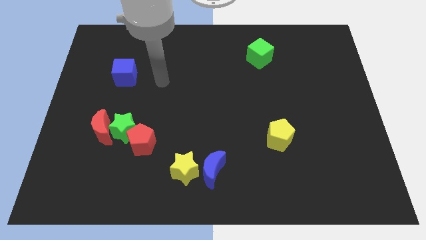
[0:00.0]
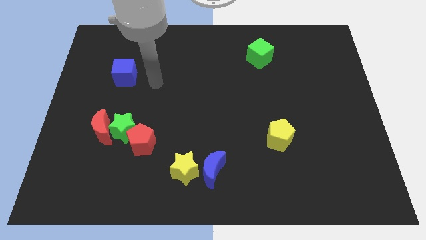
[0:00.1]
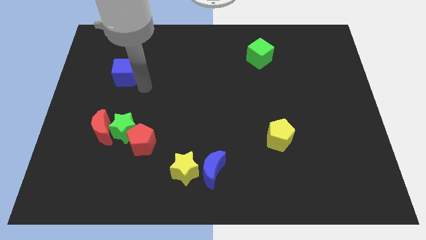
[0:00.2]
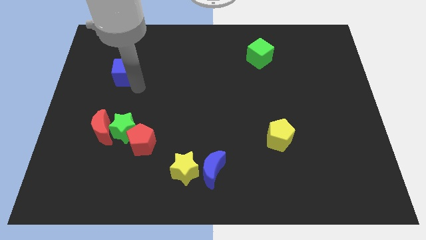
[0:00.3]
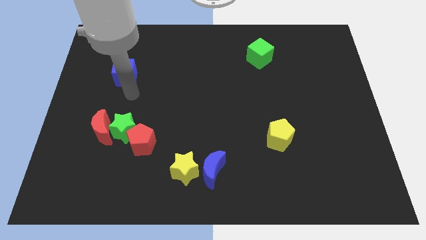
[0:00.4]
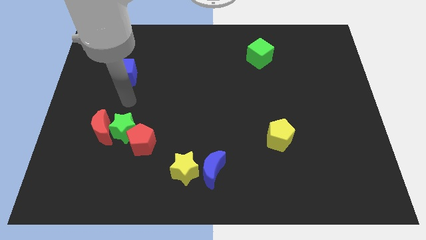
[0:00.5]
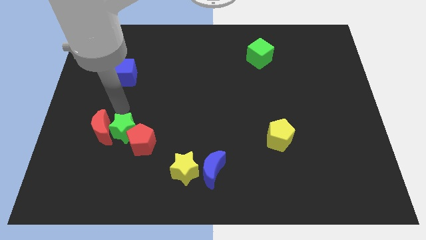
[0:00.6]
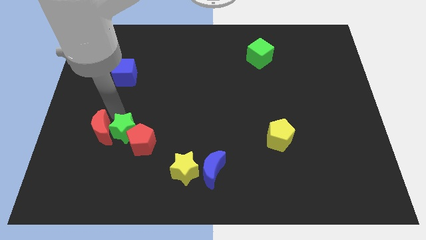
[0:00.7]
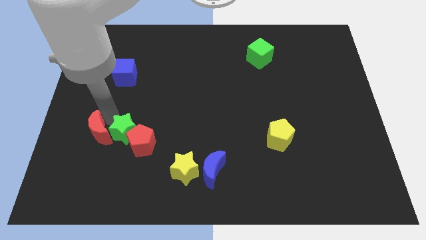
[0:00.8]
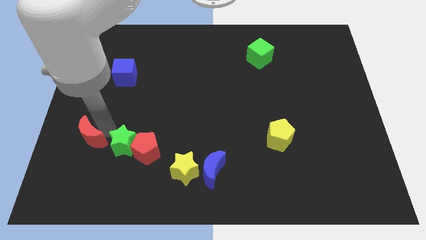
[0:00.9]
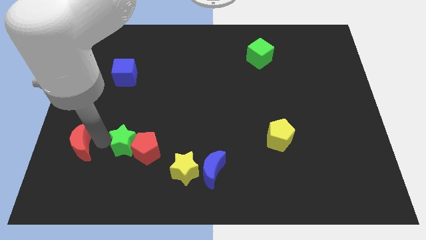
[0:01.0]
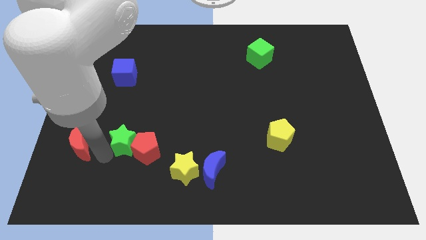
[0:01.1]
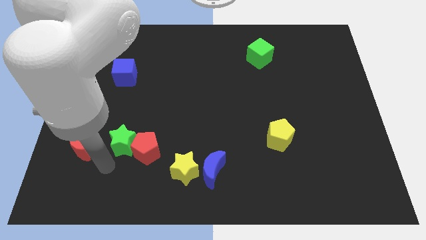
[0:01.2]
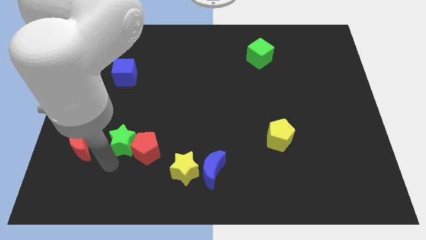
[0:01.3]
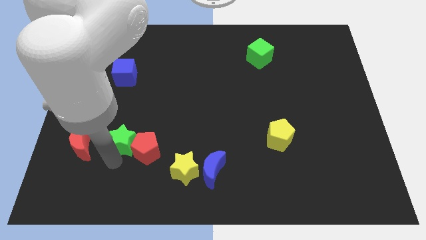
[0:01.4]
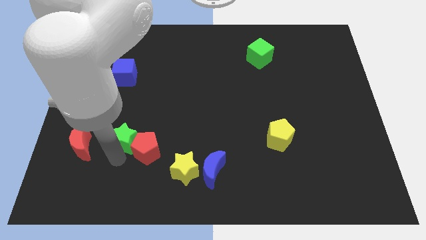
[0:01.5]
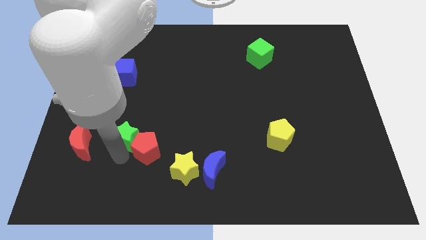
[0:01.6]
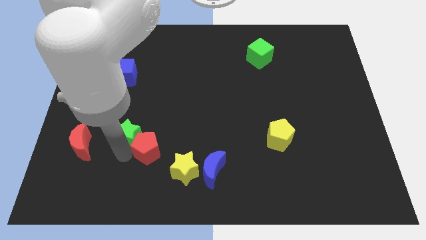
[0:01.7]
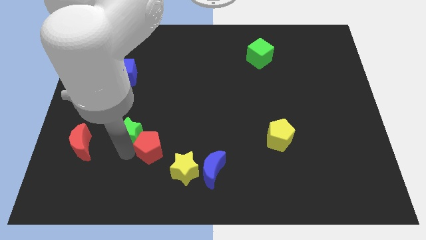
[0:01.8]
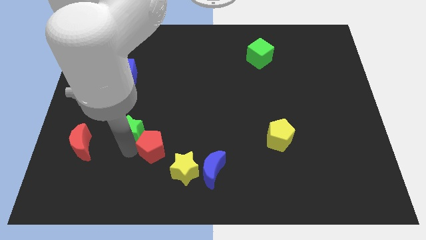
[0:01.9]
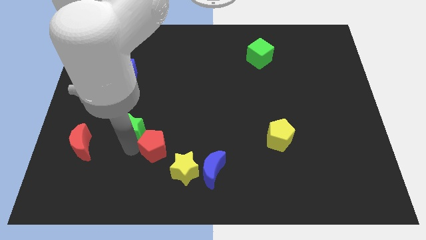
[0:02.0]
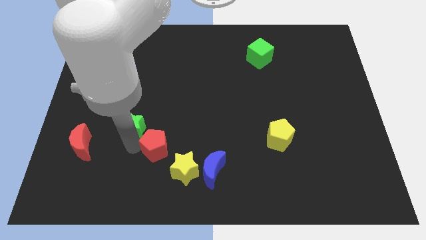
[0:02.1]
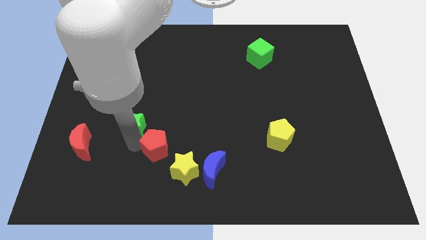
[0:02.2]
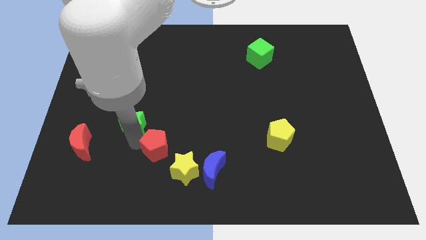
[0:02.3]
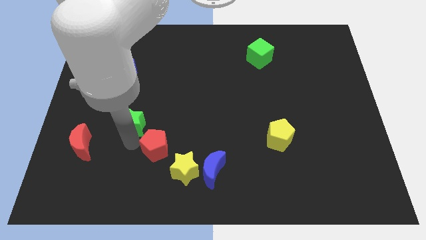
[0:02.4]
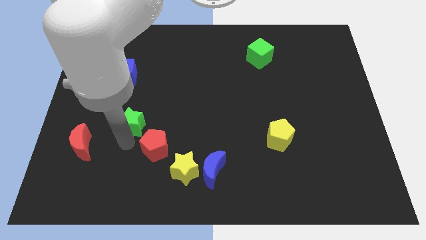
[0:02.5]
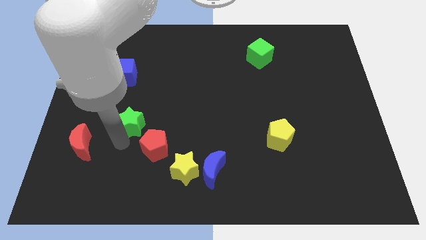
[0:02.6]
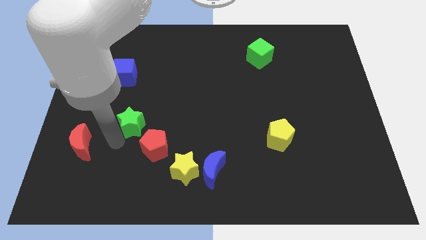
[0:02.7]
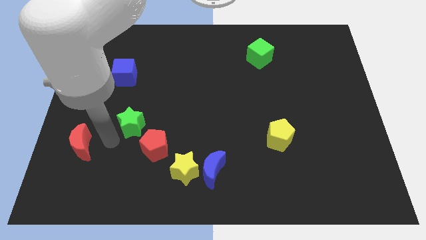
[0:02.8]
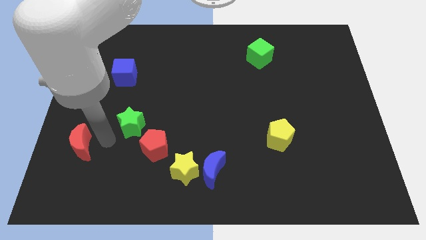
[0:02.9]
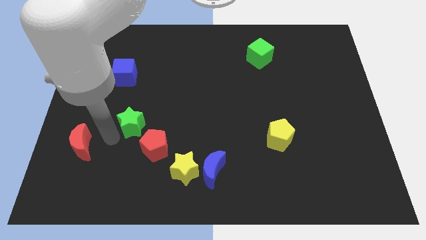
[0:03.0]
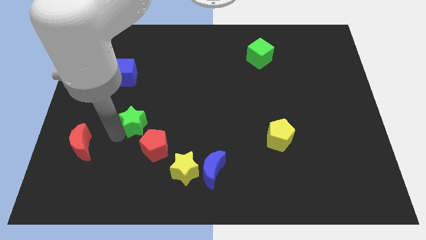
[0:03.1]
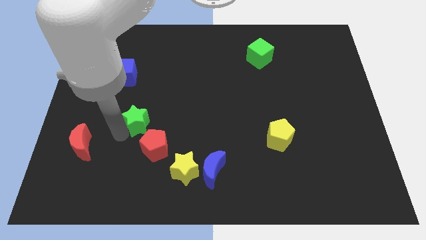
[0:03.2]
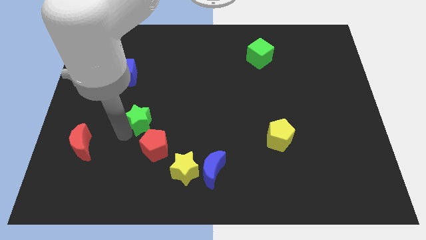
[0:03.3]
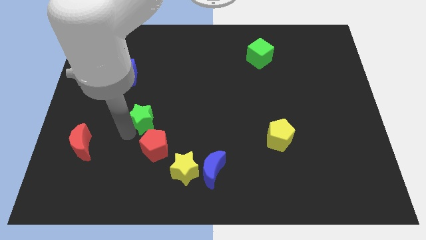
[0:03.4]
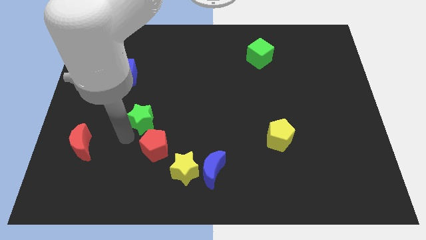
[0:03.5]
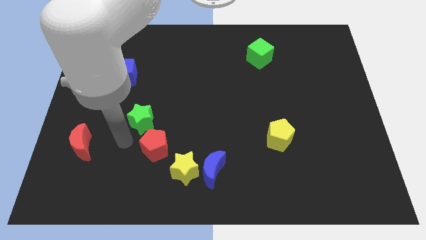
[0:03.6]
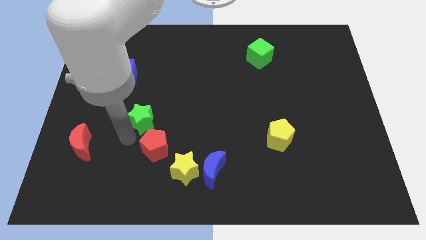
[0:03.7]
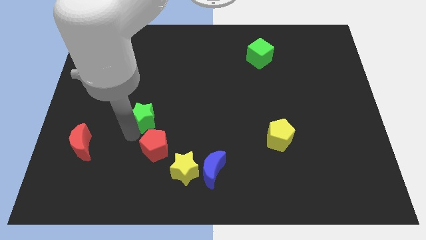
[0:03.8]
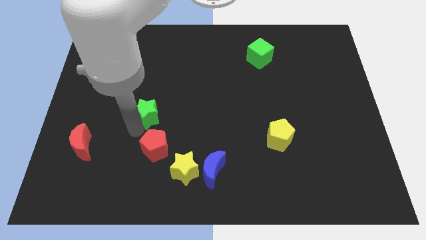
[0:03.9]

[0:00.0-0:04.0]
pull the green star apart from the red moon and red pentagon

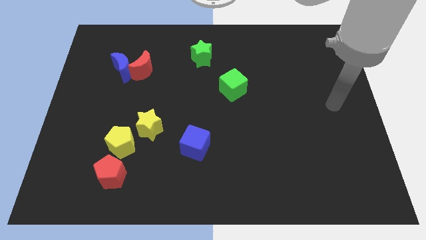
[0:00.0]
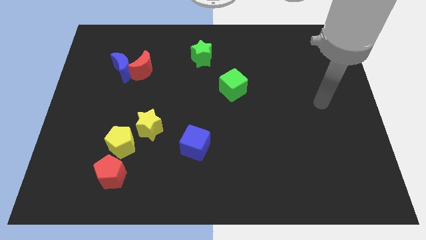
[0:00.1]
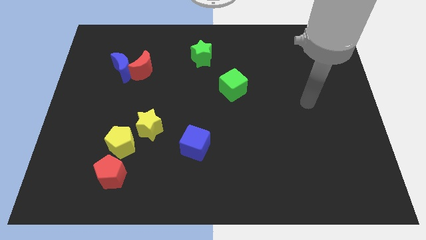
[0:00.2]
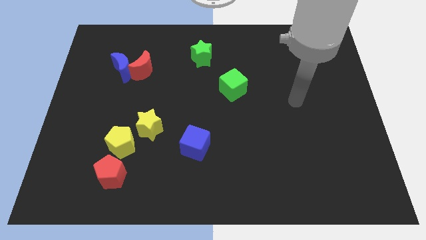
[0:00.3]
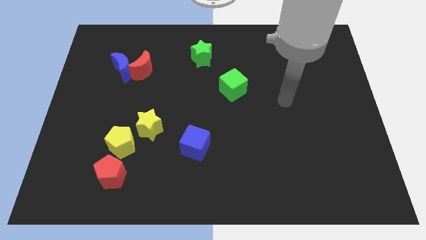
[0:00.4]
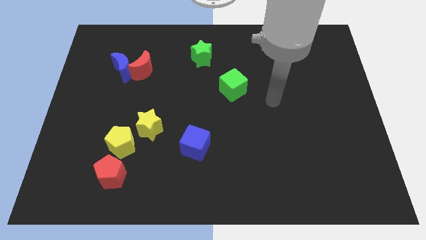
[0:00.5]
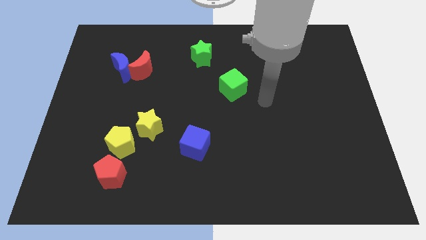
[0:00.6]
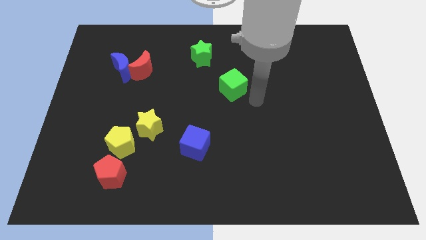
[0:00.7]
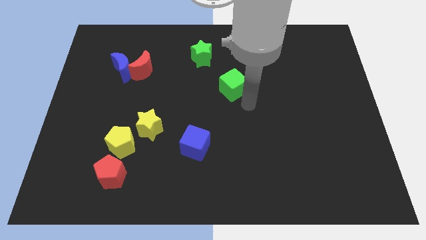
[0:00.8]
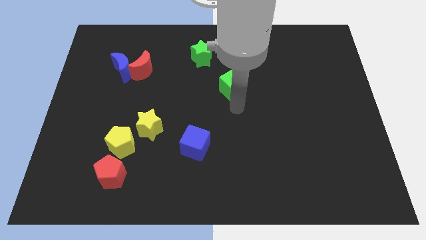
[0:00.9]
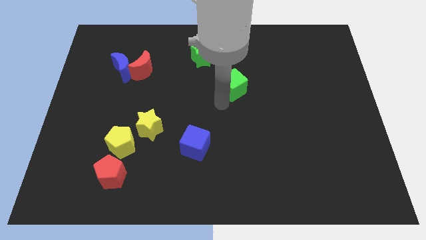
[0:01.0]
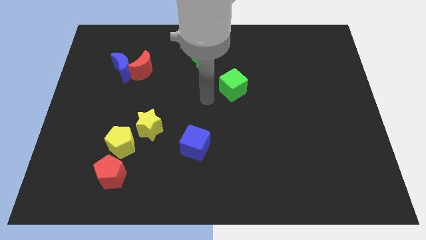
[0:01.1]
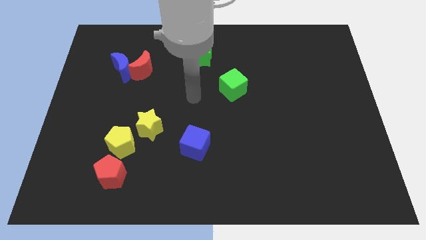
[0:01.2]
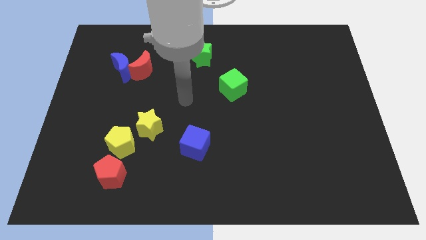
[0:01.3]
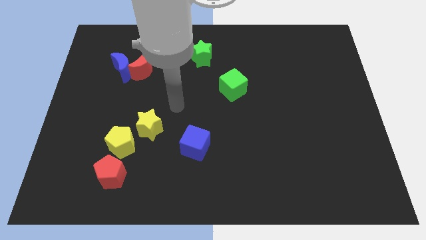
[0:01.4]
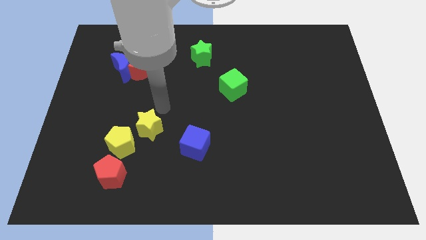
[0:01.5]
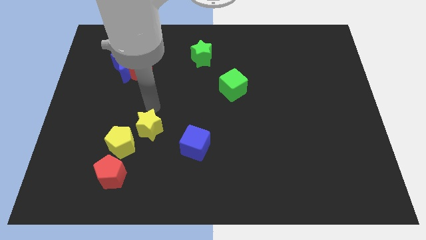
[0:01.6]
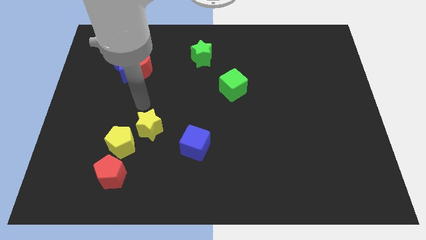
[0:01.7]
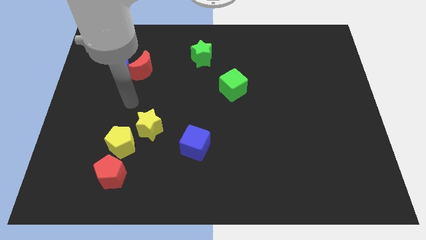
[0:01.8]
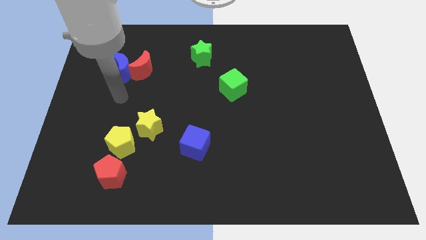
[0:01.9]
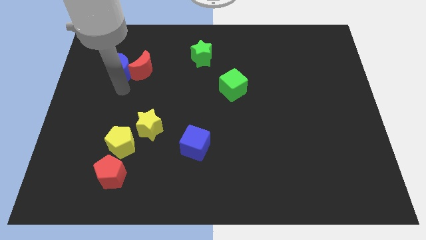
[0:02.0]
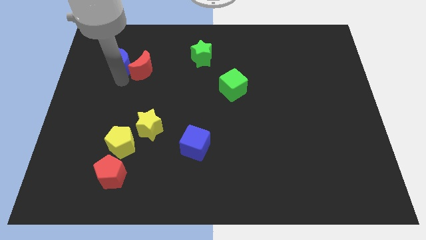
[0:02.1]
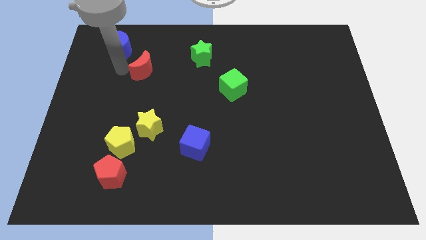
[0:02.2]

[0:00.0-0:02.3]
pull the red moon apart from the blue moon

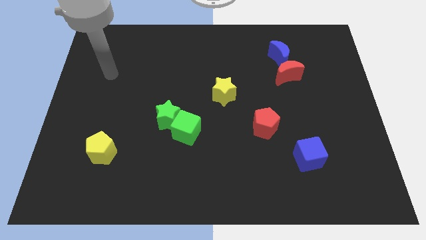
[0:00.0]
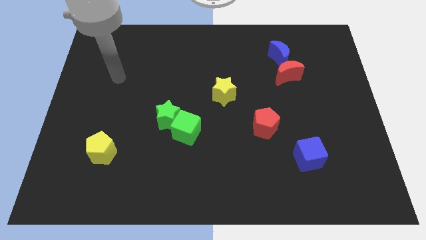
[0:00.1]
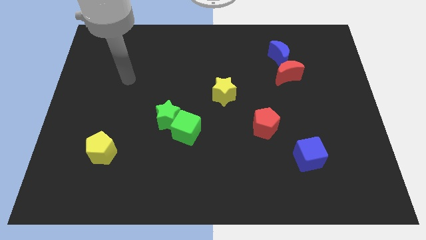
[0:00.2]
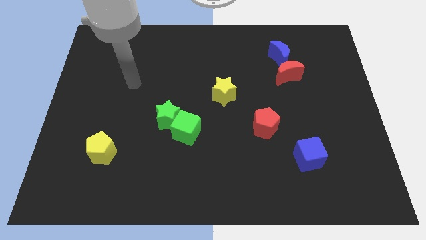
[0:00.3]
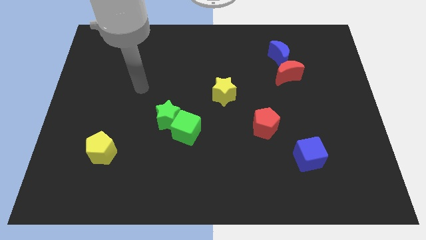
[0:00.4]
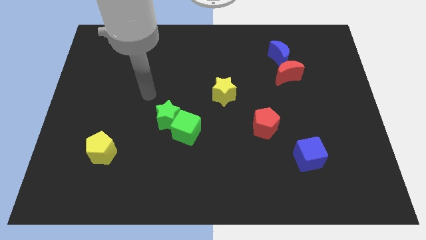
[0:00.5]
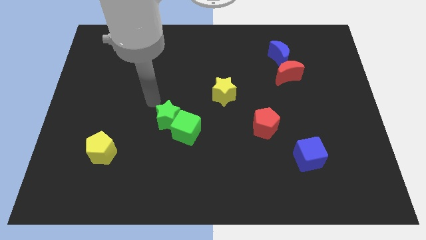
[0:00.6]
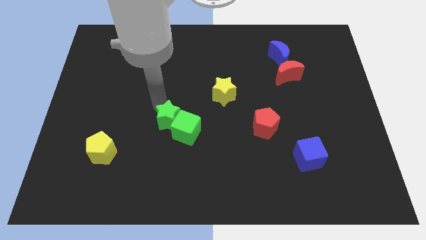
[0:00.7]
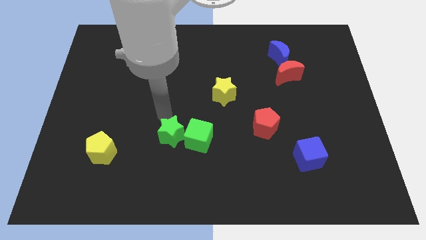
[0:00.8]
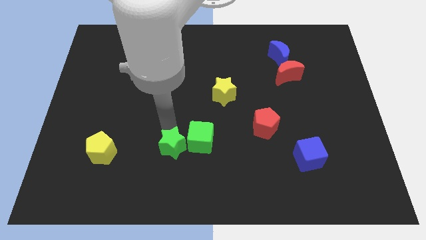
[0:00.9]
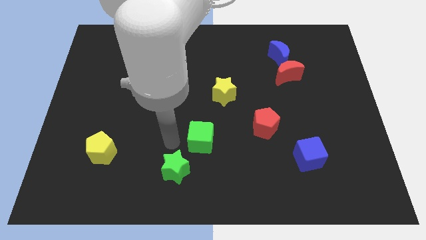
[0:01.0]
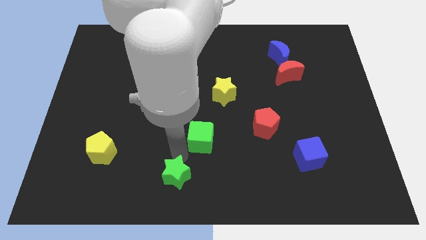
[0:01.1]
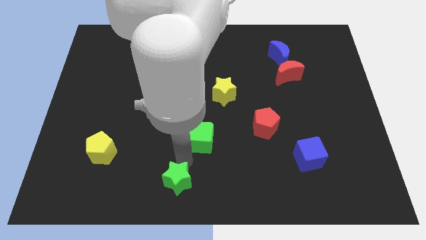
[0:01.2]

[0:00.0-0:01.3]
separate the green cube from the green star

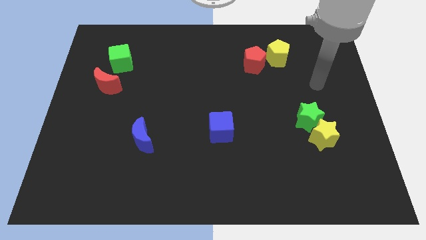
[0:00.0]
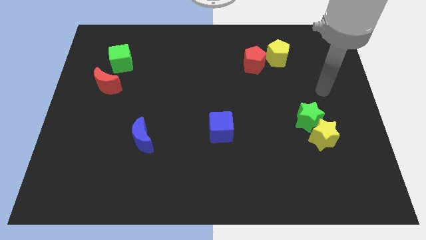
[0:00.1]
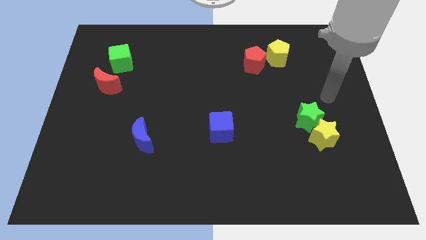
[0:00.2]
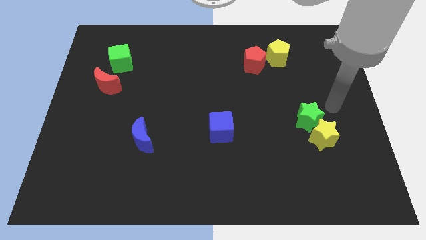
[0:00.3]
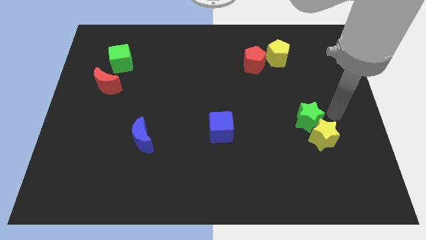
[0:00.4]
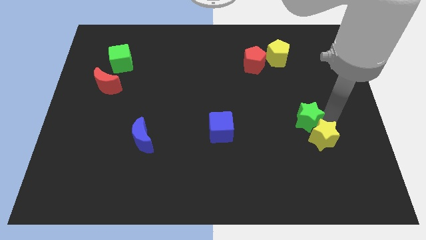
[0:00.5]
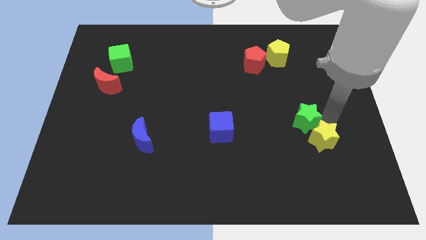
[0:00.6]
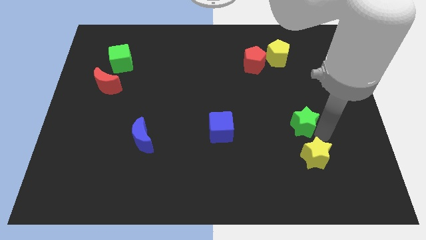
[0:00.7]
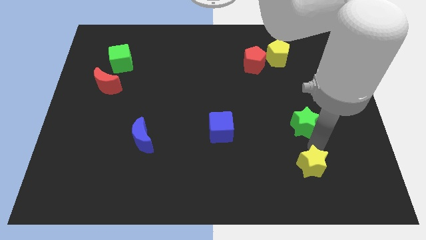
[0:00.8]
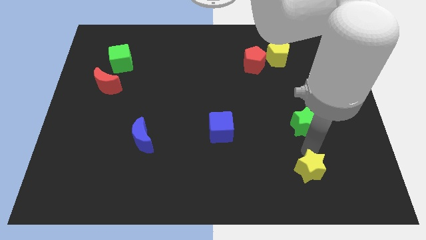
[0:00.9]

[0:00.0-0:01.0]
pull the green star apart from the yellow star

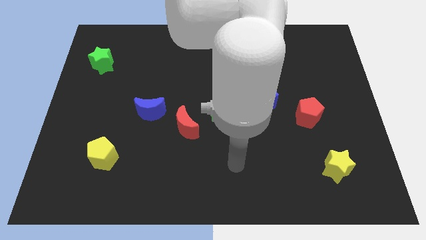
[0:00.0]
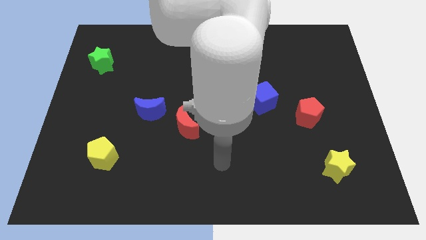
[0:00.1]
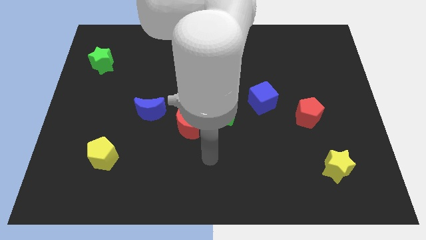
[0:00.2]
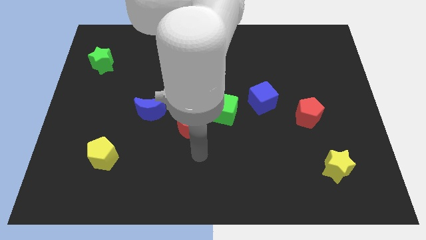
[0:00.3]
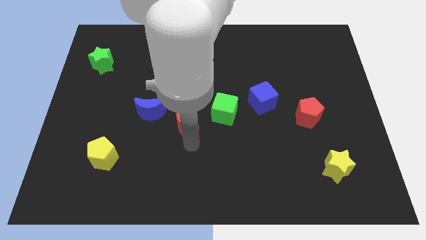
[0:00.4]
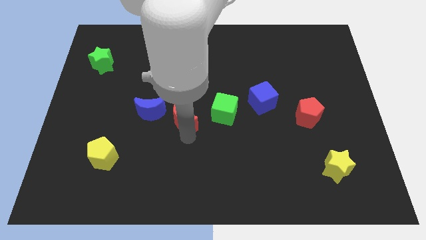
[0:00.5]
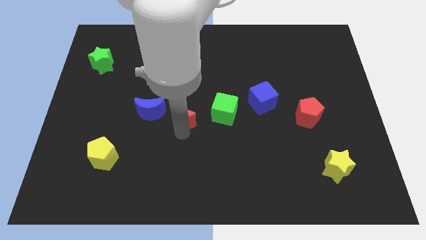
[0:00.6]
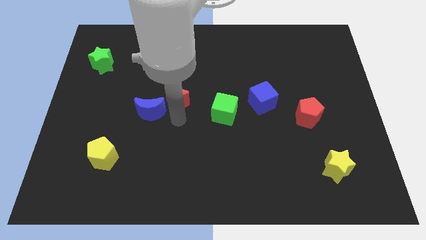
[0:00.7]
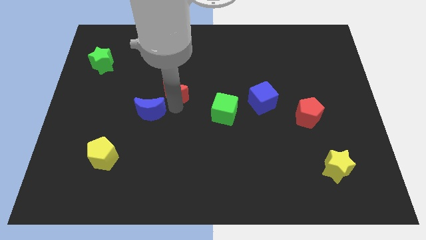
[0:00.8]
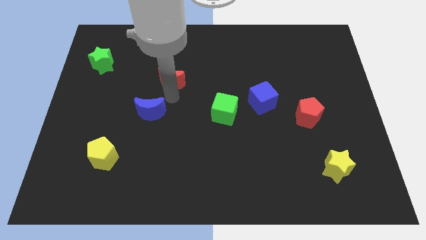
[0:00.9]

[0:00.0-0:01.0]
pull the blue moon apart from the red moon
